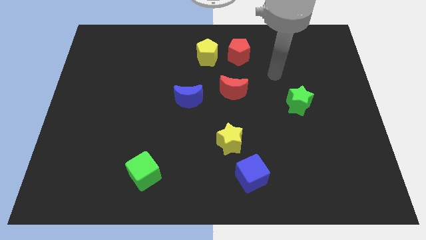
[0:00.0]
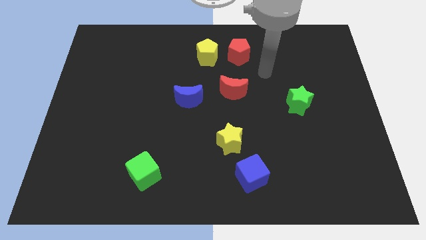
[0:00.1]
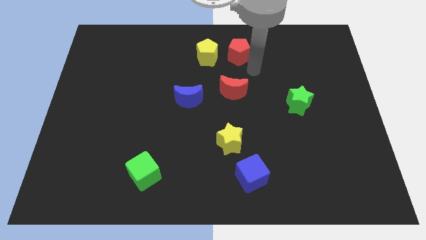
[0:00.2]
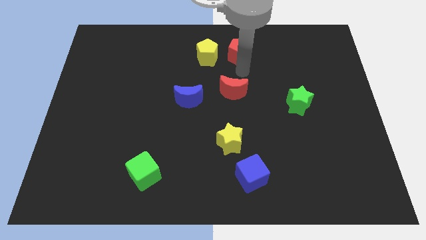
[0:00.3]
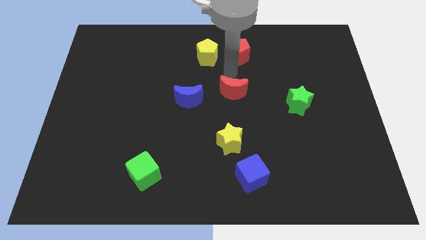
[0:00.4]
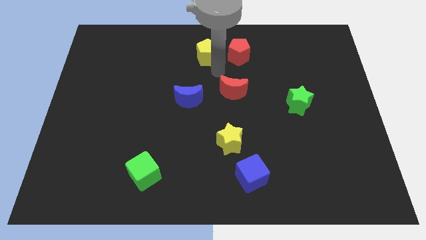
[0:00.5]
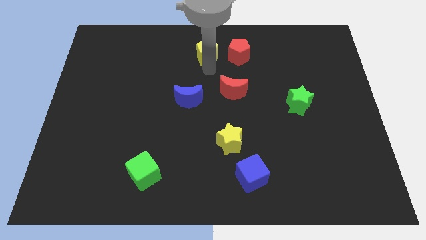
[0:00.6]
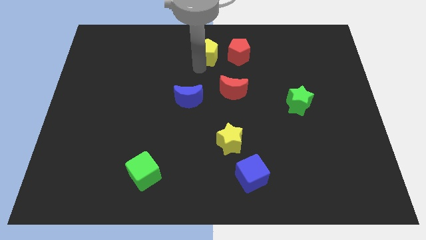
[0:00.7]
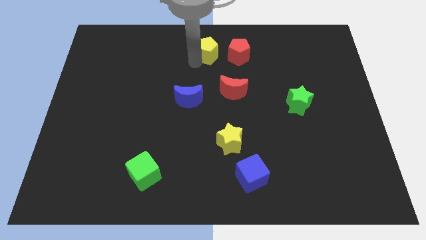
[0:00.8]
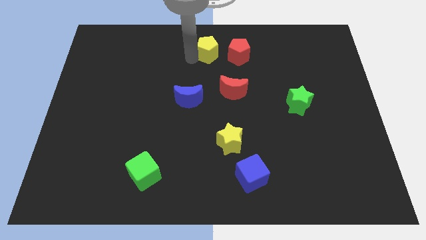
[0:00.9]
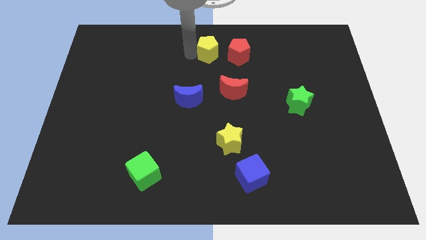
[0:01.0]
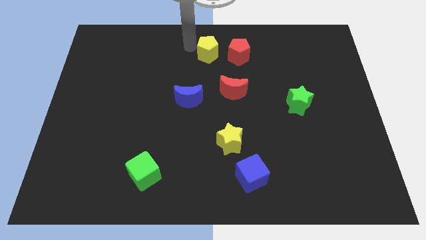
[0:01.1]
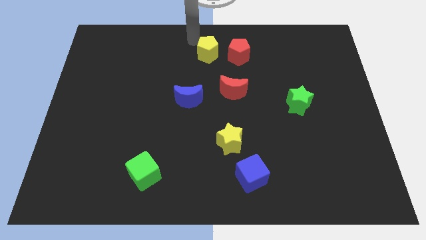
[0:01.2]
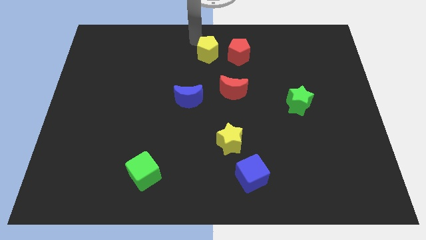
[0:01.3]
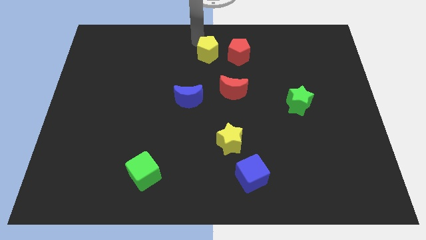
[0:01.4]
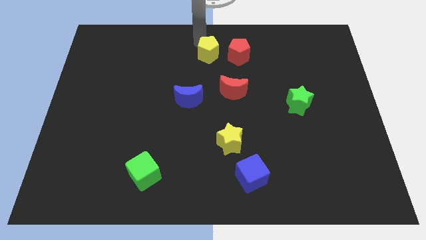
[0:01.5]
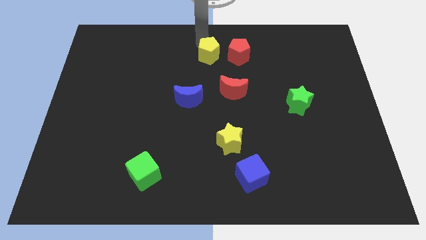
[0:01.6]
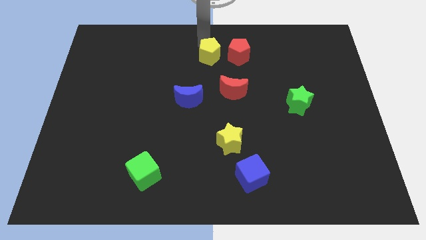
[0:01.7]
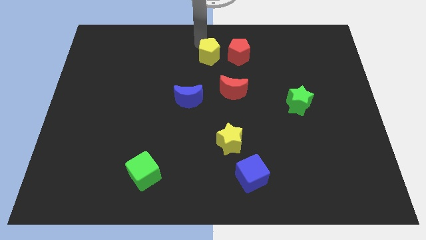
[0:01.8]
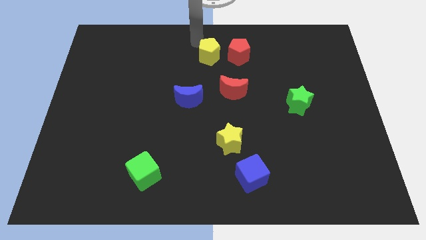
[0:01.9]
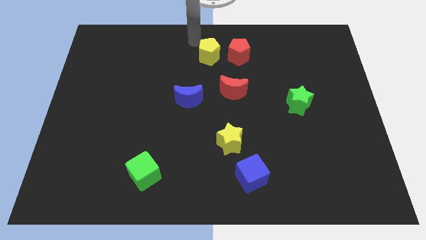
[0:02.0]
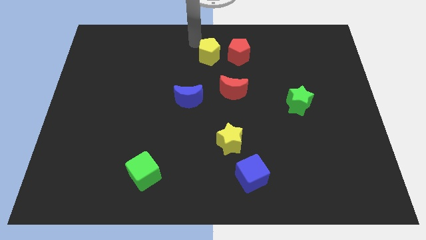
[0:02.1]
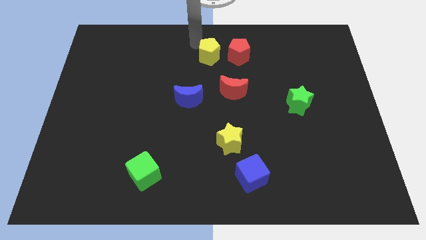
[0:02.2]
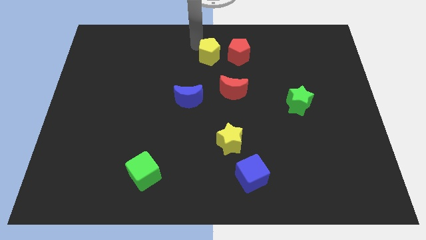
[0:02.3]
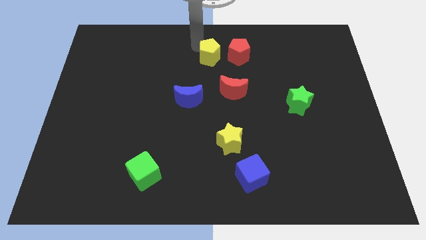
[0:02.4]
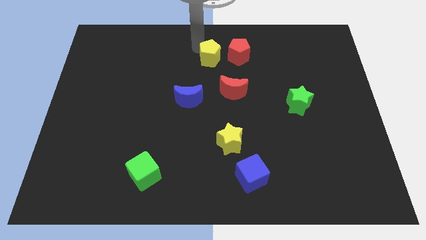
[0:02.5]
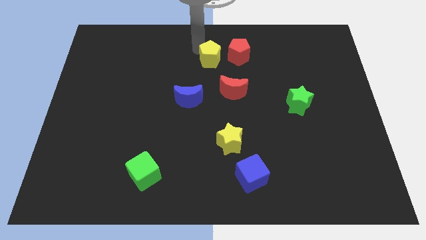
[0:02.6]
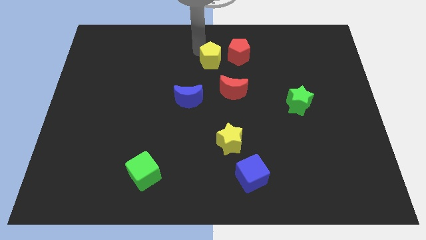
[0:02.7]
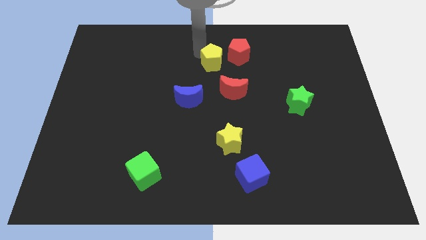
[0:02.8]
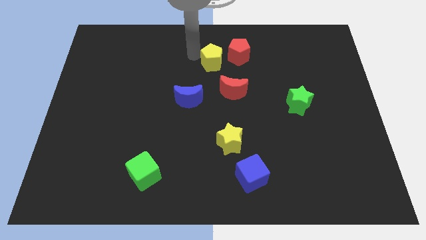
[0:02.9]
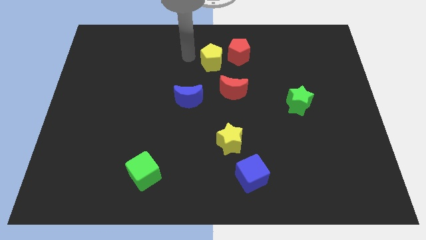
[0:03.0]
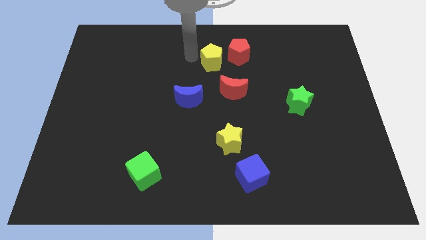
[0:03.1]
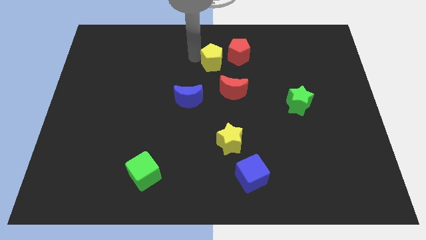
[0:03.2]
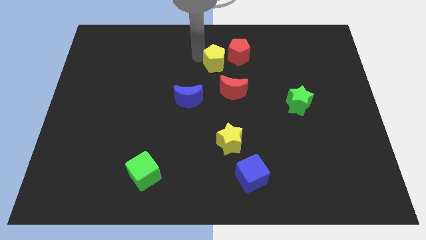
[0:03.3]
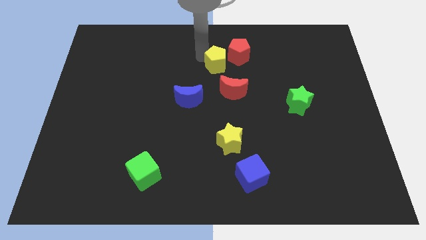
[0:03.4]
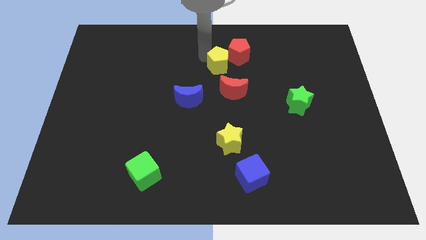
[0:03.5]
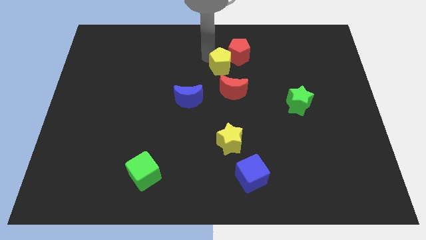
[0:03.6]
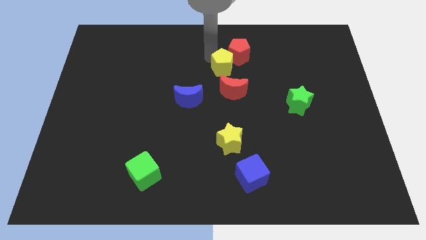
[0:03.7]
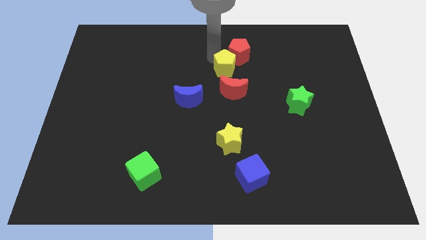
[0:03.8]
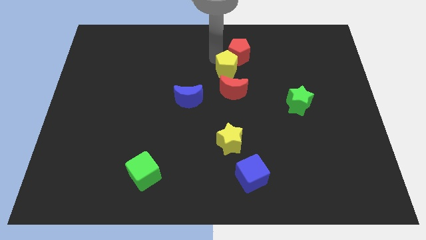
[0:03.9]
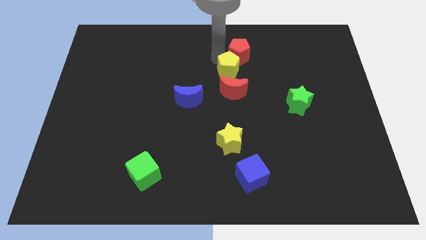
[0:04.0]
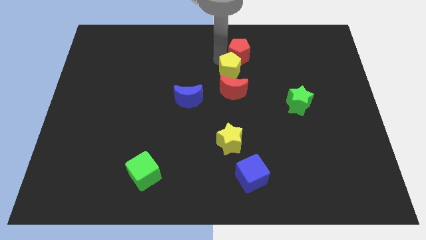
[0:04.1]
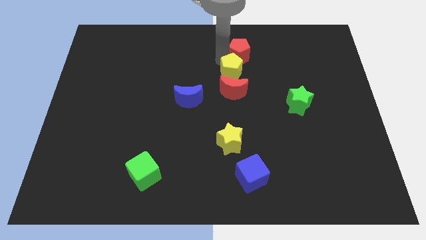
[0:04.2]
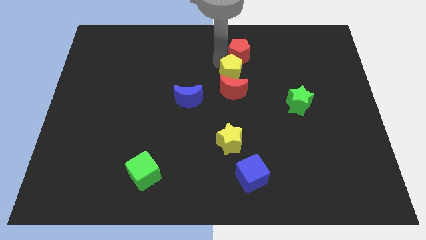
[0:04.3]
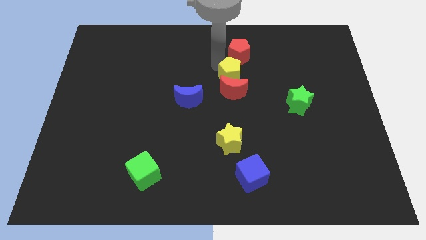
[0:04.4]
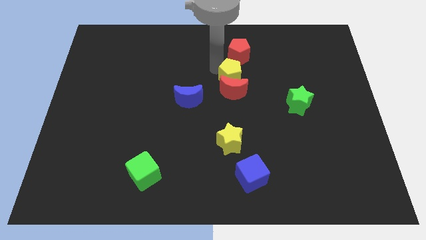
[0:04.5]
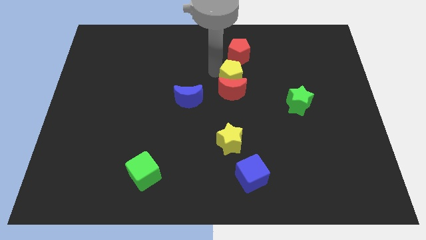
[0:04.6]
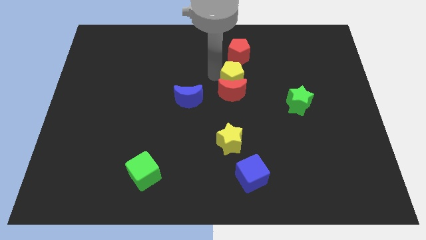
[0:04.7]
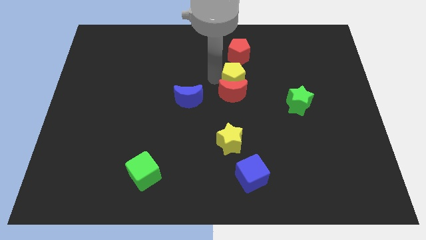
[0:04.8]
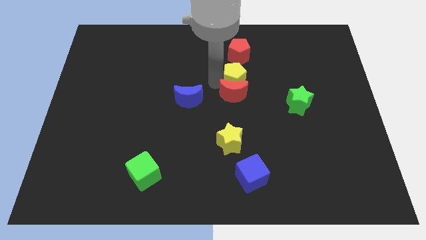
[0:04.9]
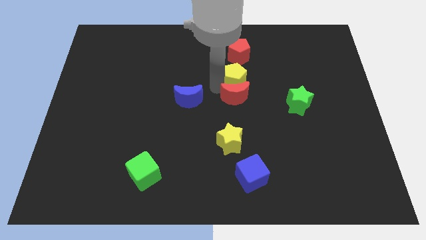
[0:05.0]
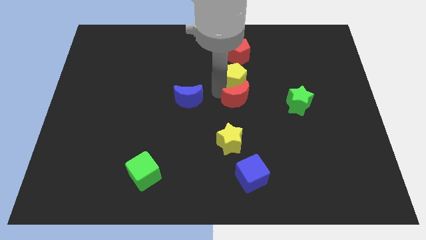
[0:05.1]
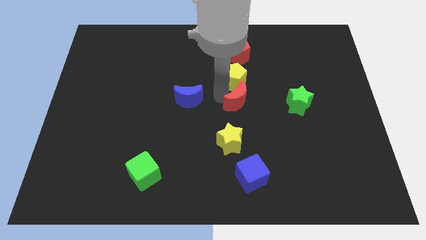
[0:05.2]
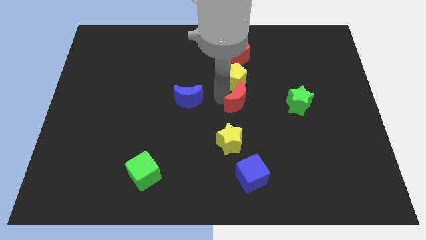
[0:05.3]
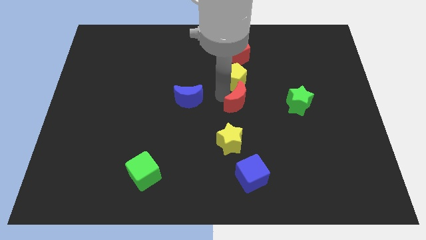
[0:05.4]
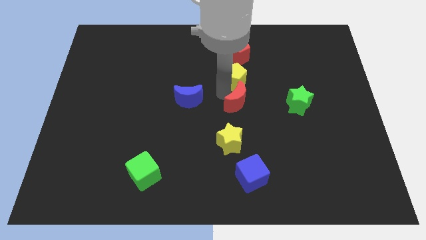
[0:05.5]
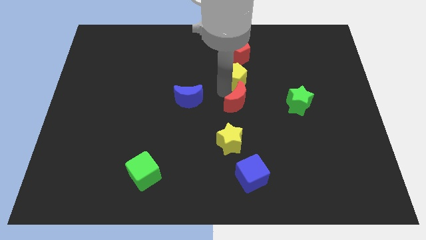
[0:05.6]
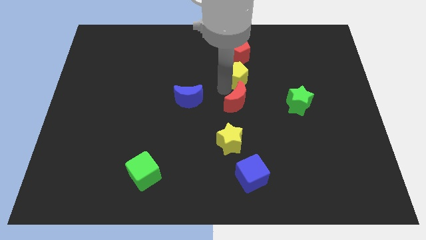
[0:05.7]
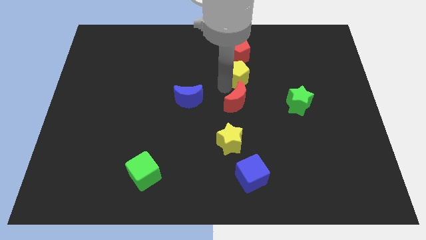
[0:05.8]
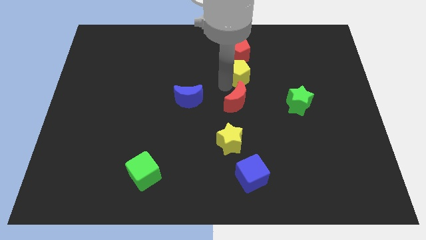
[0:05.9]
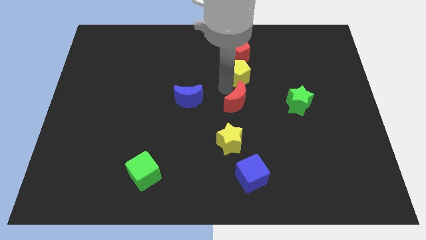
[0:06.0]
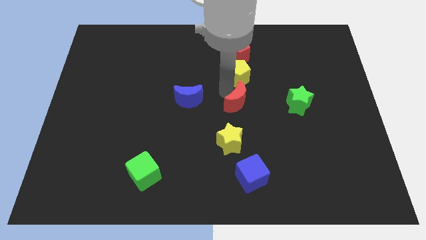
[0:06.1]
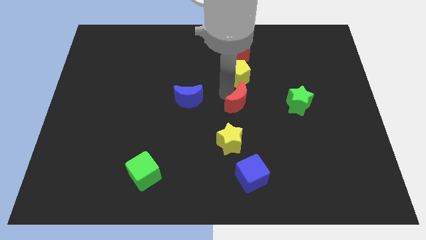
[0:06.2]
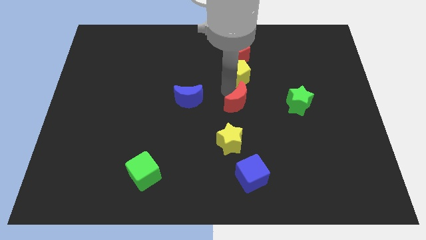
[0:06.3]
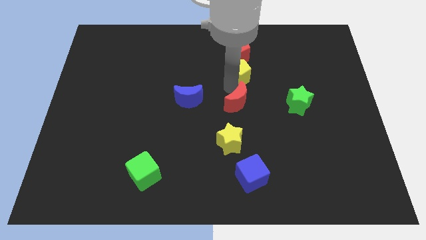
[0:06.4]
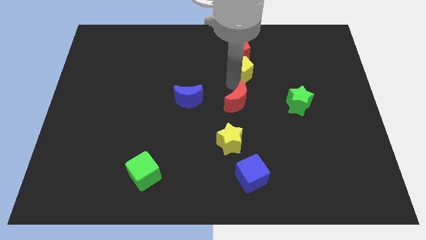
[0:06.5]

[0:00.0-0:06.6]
slightly move the yellow pentagon to the right

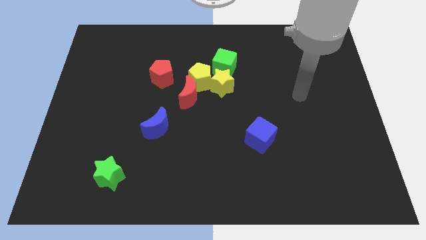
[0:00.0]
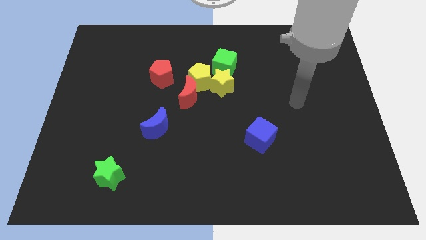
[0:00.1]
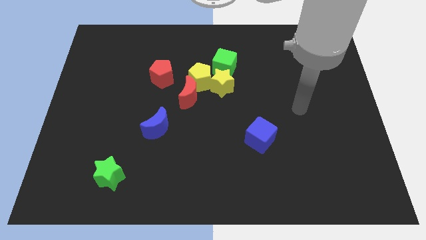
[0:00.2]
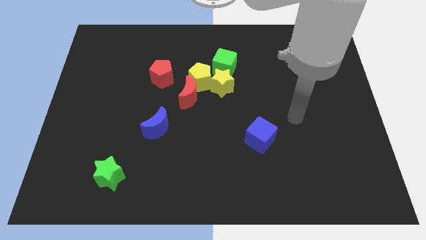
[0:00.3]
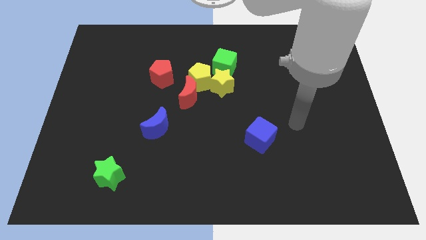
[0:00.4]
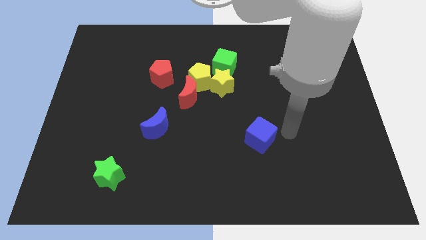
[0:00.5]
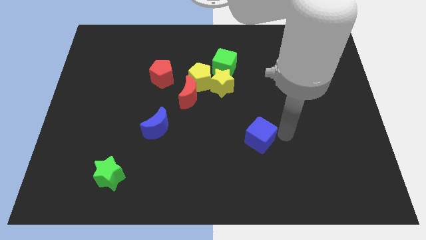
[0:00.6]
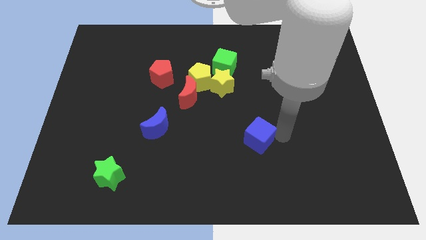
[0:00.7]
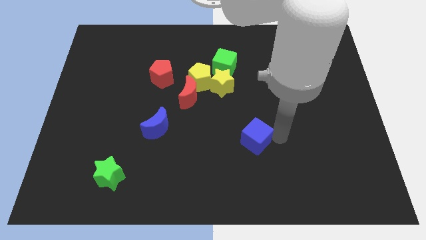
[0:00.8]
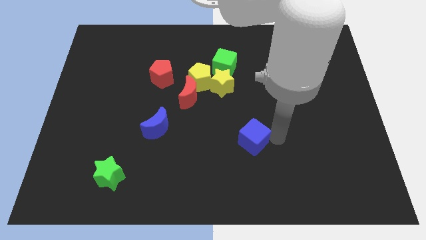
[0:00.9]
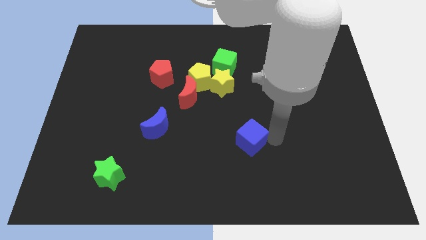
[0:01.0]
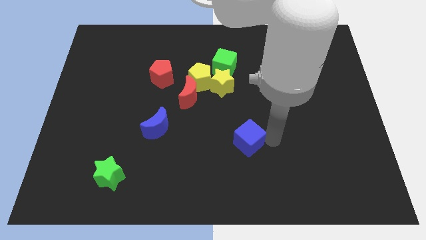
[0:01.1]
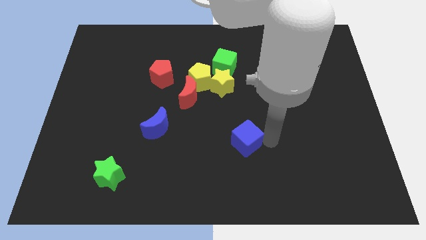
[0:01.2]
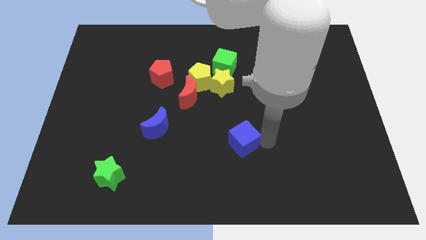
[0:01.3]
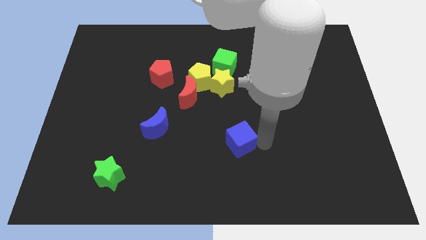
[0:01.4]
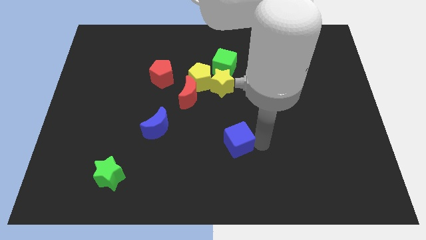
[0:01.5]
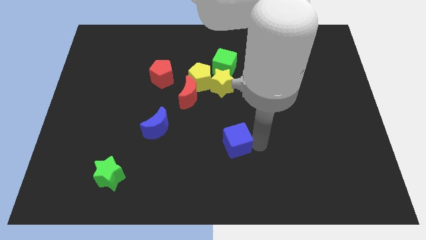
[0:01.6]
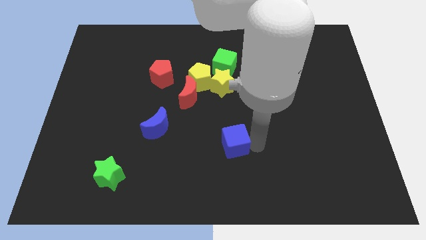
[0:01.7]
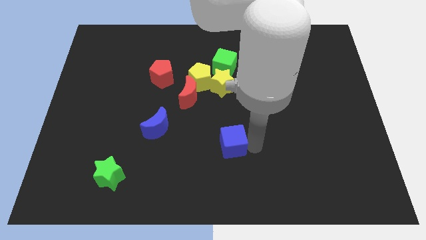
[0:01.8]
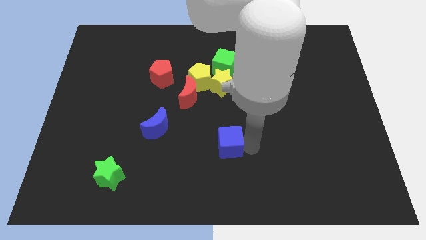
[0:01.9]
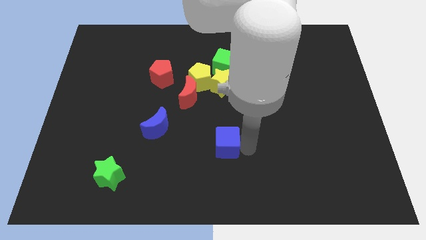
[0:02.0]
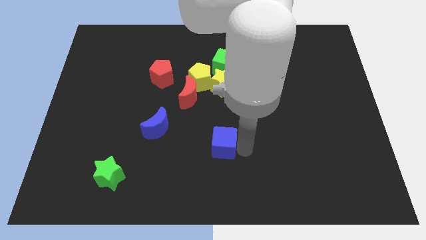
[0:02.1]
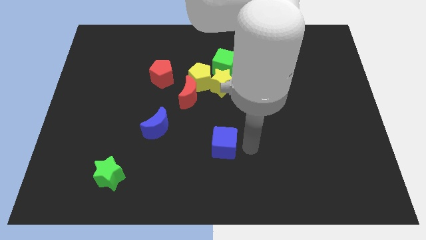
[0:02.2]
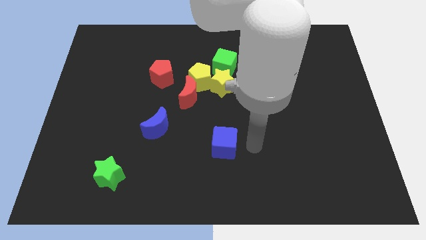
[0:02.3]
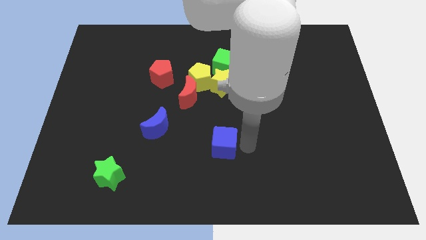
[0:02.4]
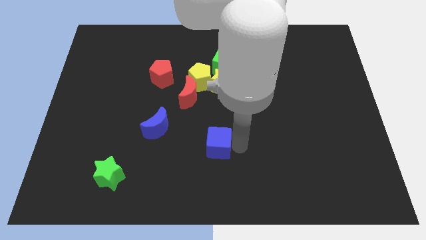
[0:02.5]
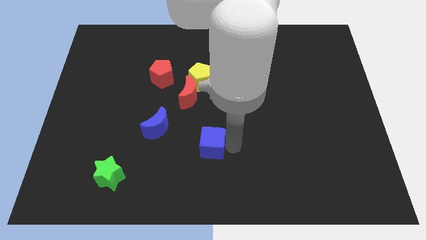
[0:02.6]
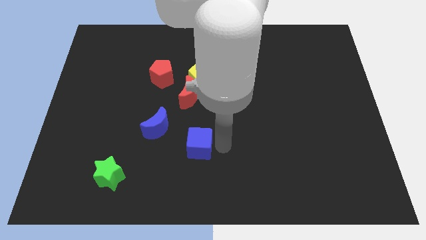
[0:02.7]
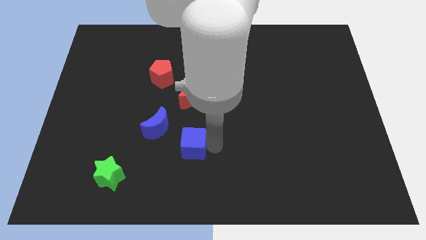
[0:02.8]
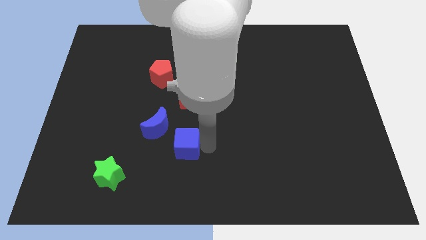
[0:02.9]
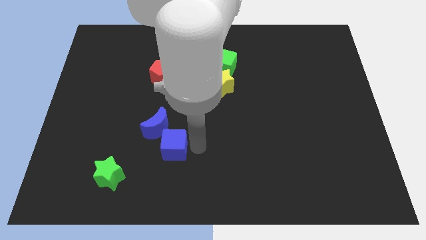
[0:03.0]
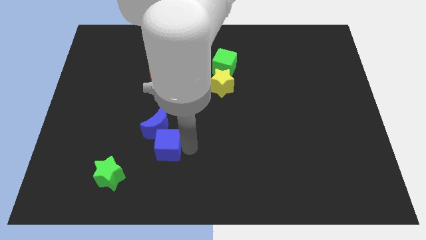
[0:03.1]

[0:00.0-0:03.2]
slide the blue cube to the left
